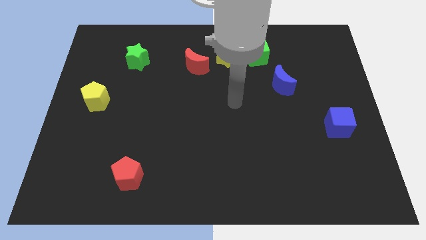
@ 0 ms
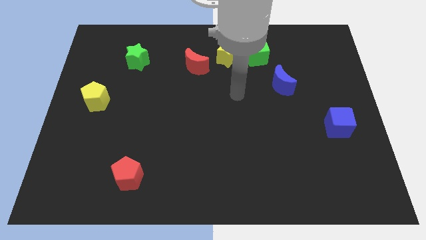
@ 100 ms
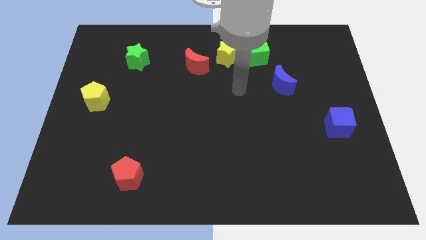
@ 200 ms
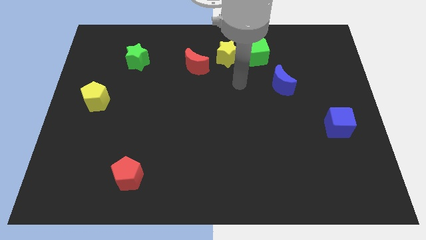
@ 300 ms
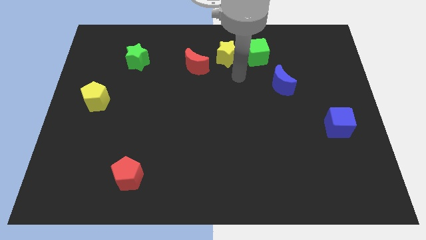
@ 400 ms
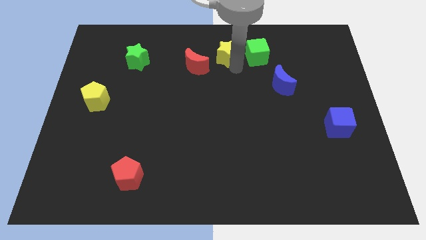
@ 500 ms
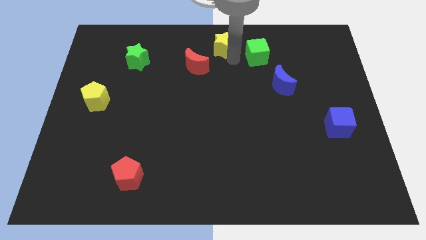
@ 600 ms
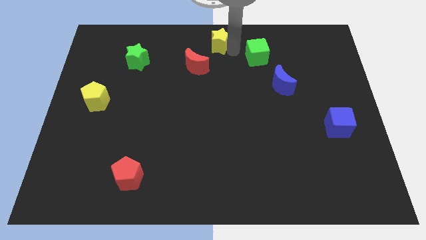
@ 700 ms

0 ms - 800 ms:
separate the green cube from the yellow star

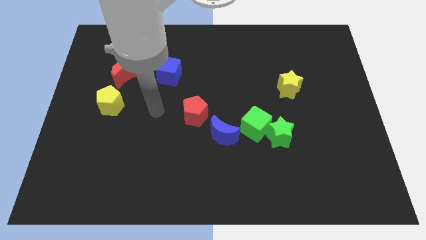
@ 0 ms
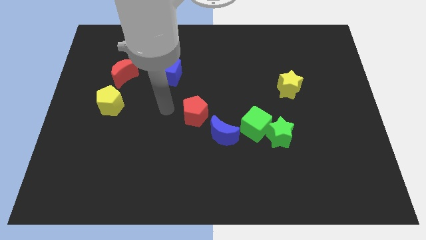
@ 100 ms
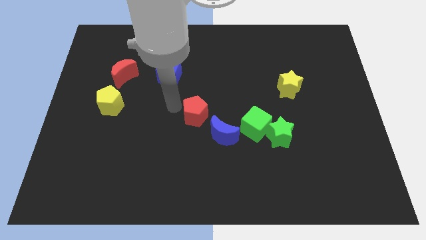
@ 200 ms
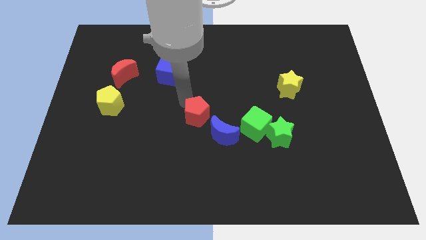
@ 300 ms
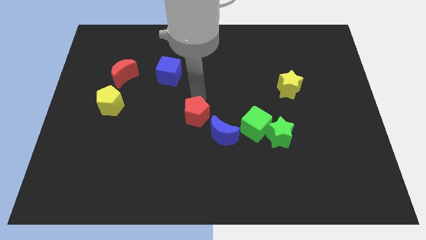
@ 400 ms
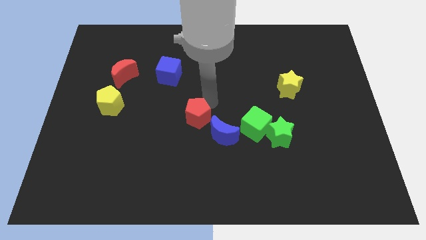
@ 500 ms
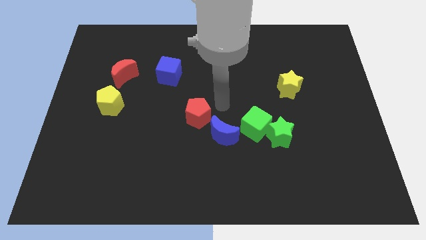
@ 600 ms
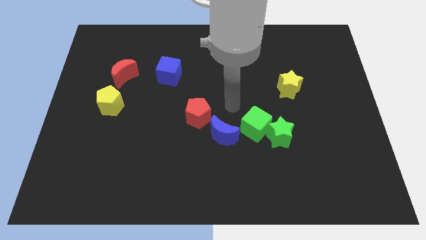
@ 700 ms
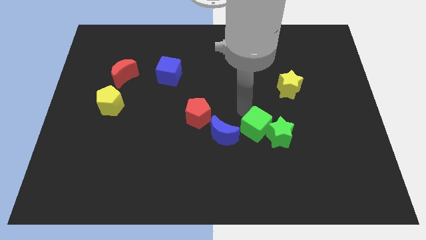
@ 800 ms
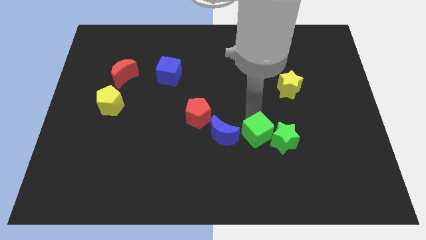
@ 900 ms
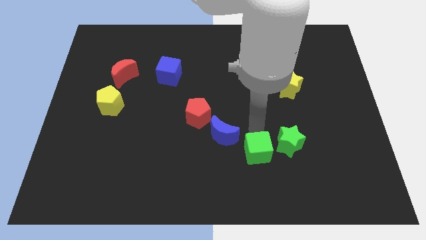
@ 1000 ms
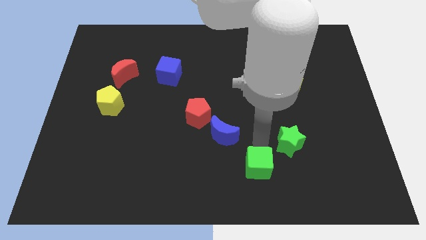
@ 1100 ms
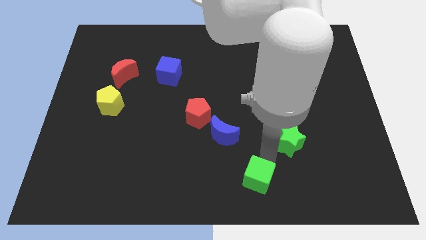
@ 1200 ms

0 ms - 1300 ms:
separate the green star from the green cube

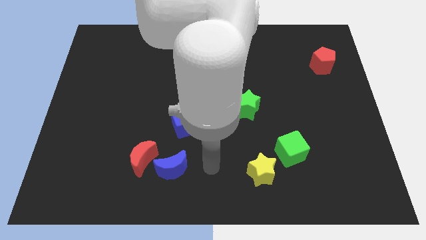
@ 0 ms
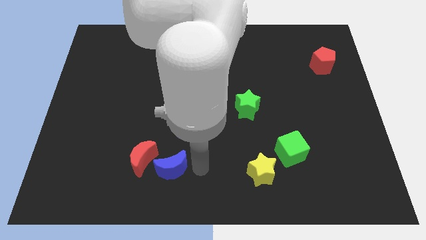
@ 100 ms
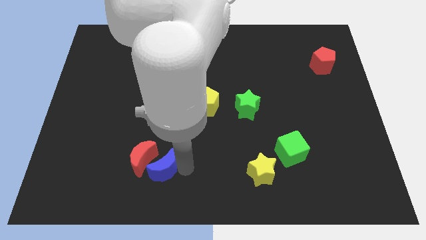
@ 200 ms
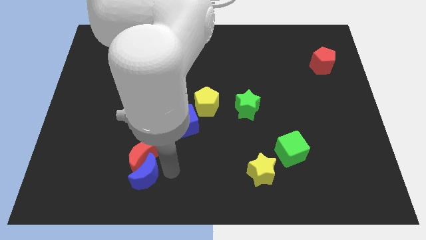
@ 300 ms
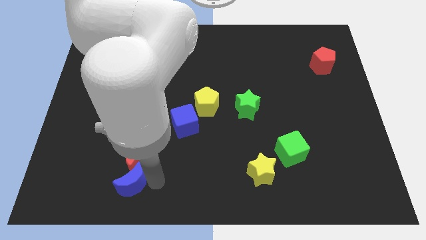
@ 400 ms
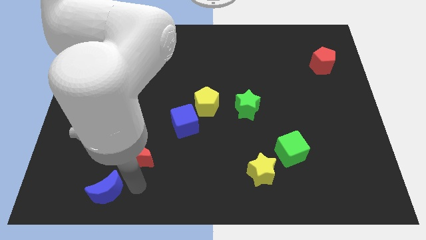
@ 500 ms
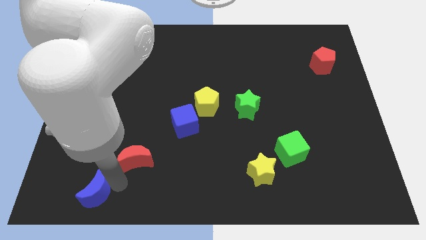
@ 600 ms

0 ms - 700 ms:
pull the red moon apart from the blue moon

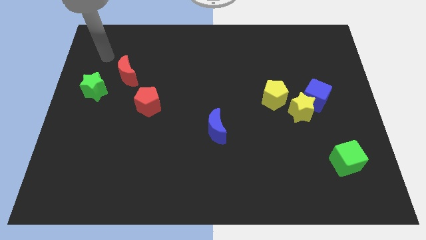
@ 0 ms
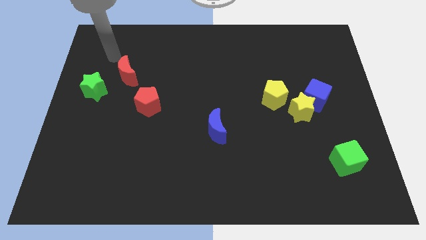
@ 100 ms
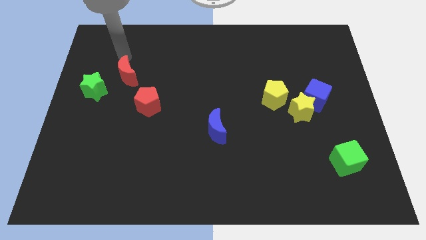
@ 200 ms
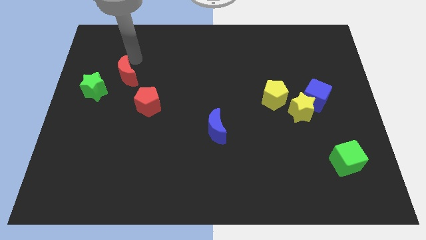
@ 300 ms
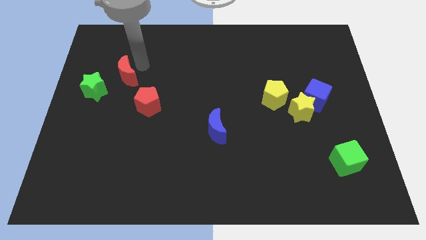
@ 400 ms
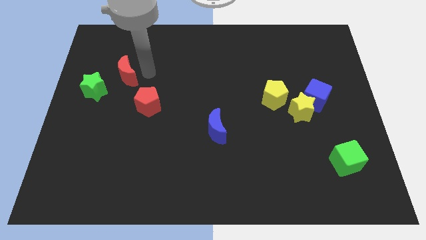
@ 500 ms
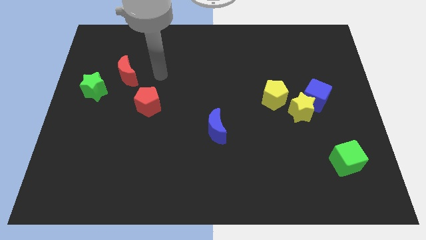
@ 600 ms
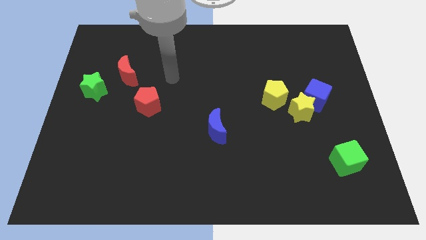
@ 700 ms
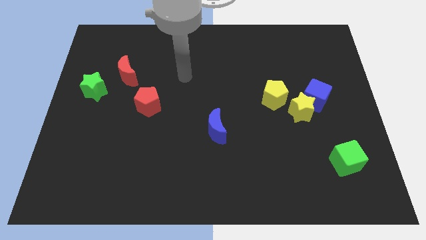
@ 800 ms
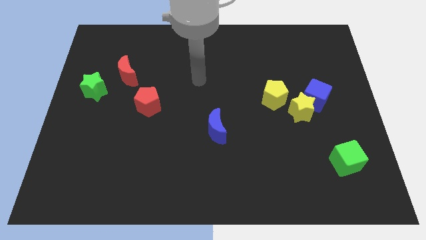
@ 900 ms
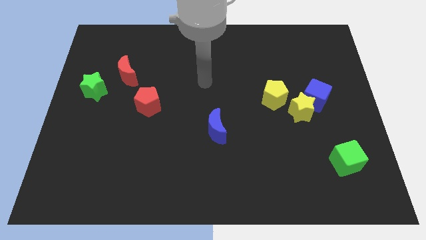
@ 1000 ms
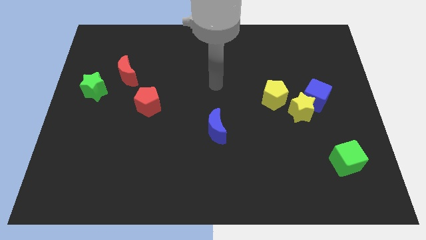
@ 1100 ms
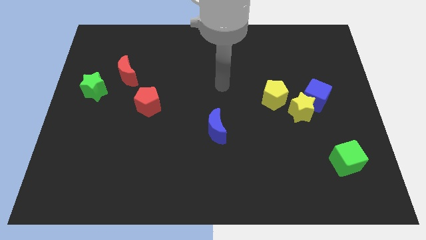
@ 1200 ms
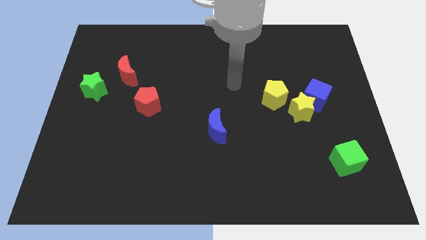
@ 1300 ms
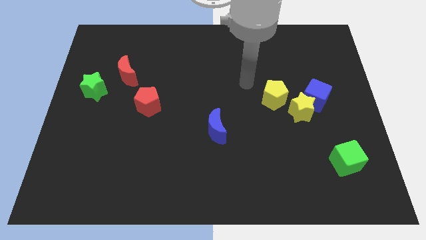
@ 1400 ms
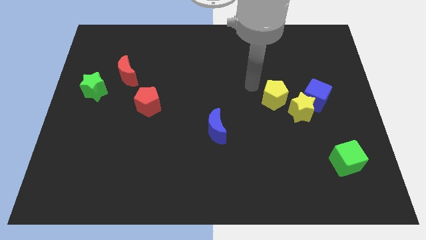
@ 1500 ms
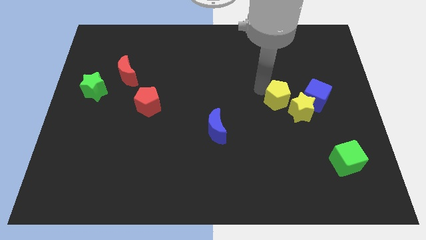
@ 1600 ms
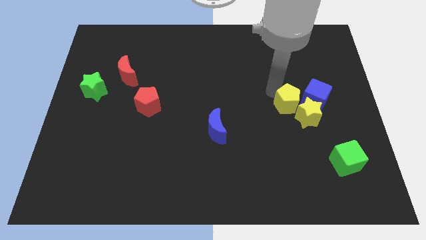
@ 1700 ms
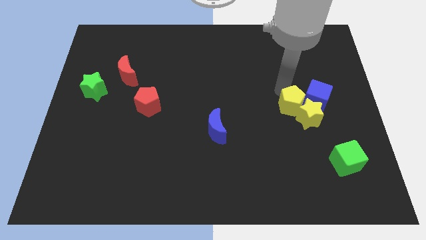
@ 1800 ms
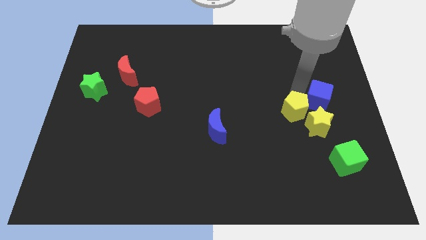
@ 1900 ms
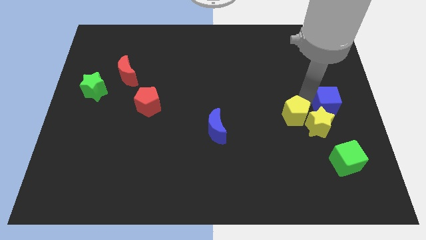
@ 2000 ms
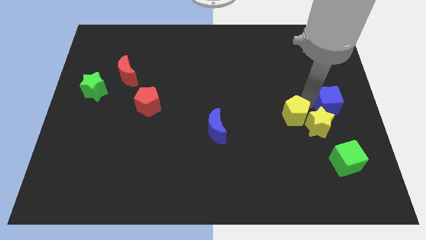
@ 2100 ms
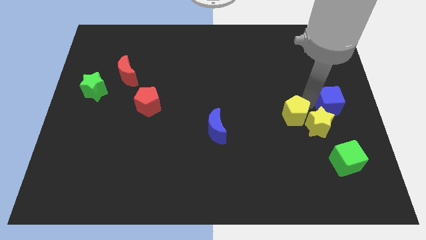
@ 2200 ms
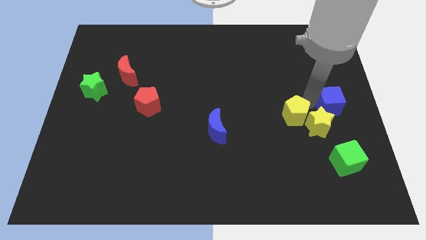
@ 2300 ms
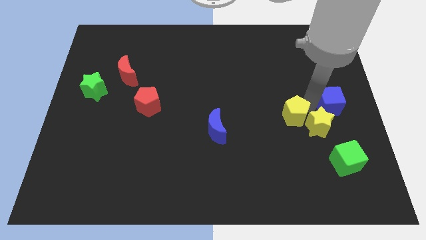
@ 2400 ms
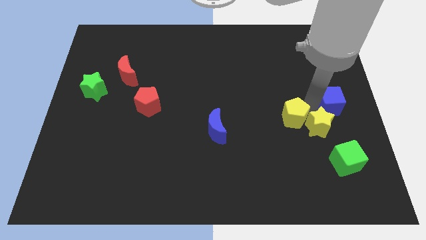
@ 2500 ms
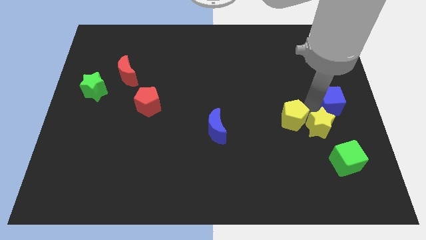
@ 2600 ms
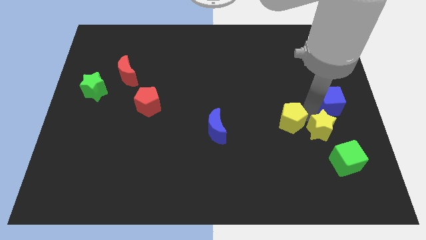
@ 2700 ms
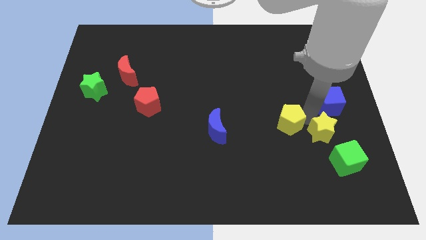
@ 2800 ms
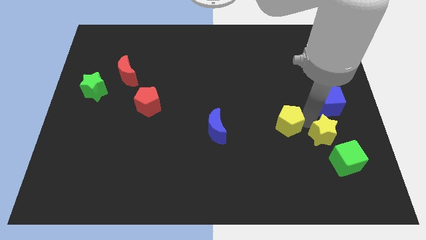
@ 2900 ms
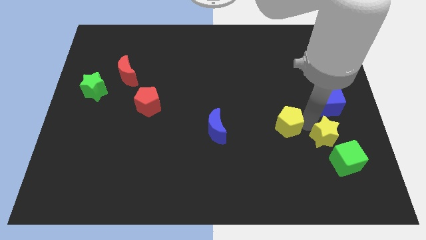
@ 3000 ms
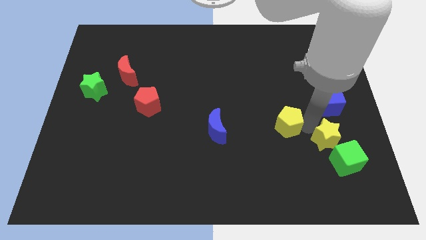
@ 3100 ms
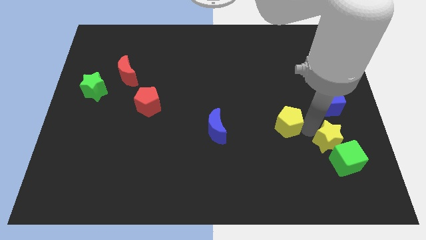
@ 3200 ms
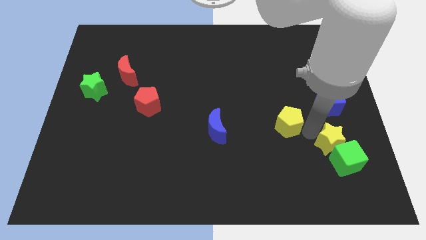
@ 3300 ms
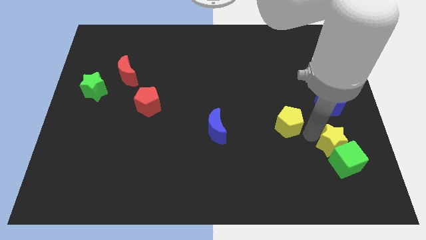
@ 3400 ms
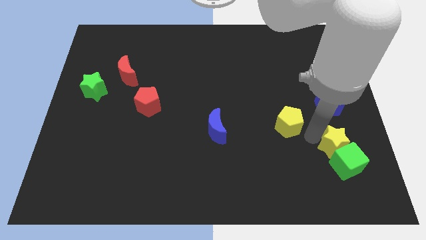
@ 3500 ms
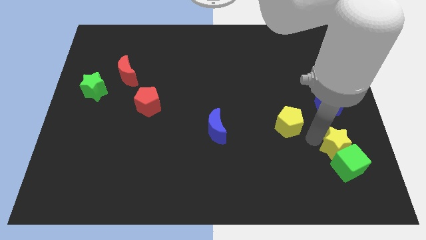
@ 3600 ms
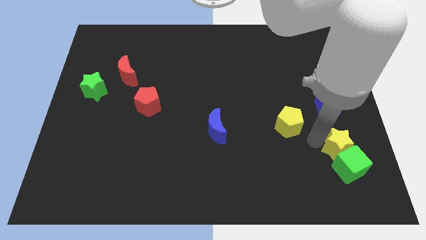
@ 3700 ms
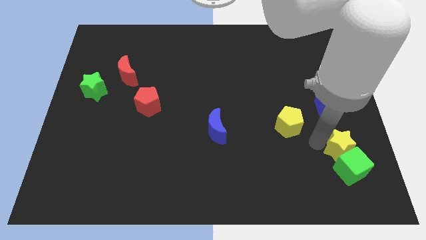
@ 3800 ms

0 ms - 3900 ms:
pull the yellow star apart from the blue cube and yellow pentagon

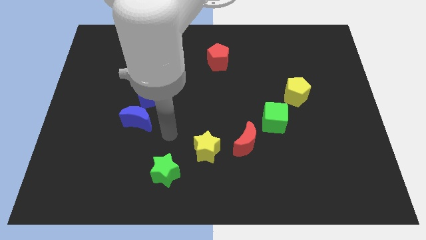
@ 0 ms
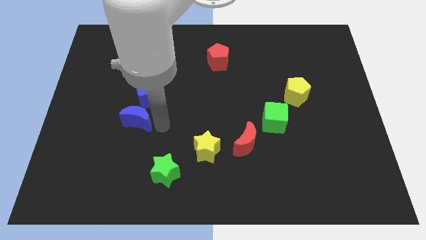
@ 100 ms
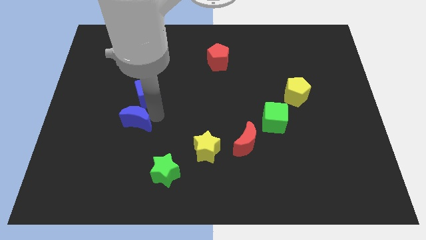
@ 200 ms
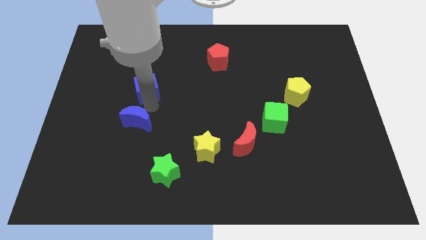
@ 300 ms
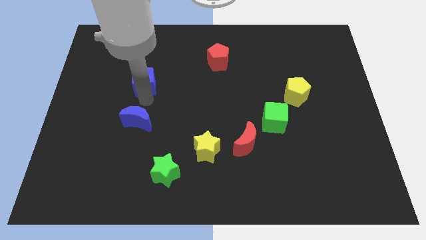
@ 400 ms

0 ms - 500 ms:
move the blue moon away from the blue cube

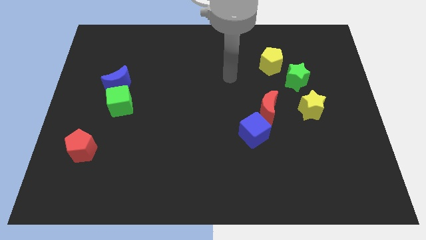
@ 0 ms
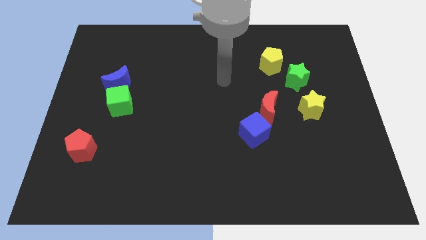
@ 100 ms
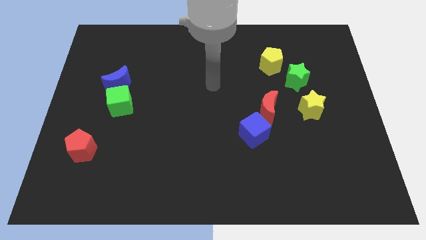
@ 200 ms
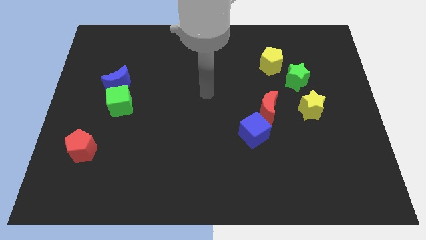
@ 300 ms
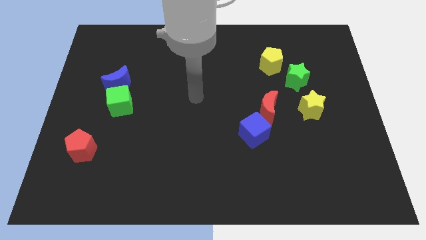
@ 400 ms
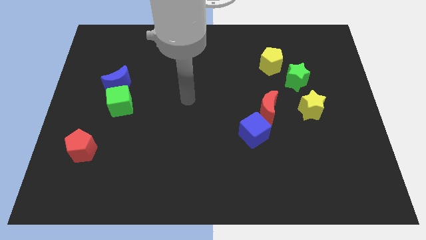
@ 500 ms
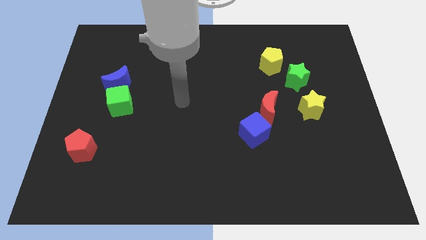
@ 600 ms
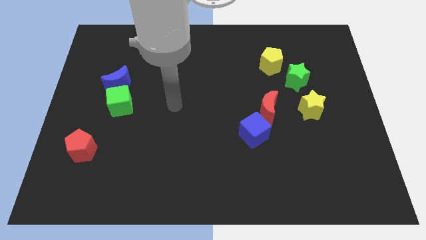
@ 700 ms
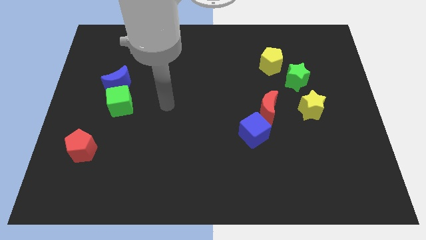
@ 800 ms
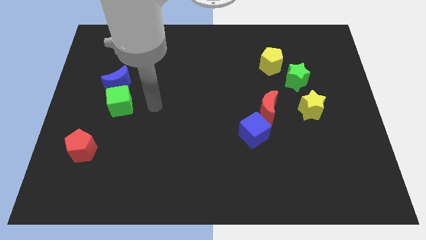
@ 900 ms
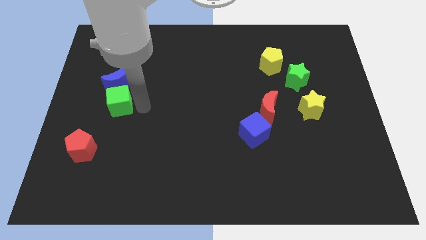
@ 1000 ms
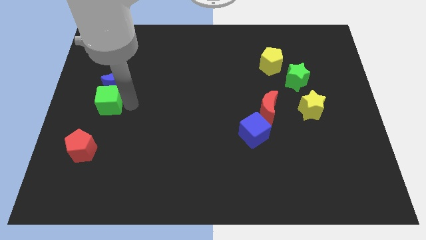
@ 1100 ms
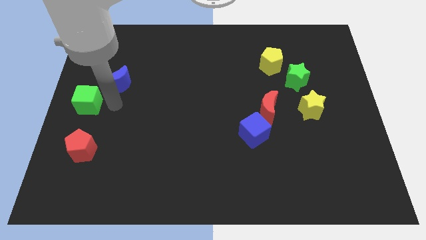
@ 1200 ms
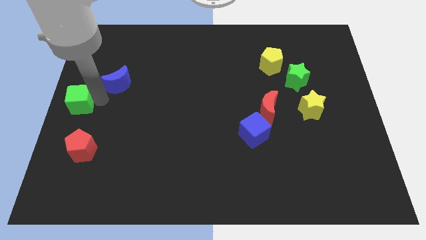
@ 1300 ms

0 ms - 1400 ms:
move the blue moon away from the green cube

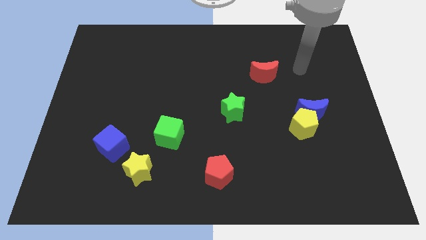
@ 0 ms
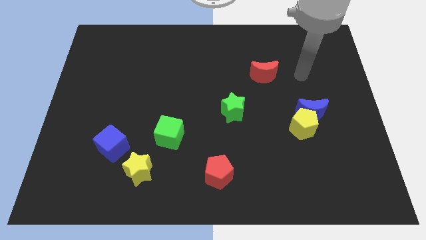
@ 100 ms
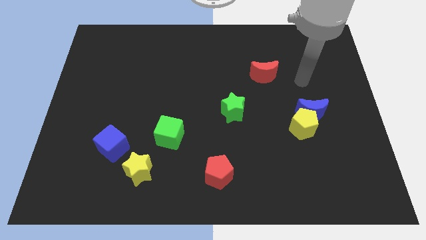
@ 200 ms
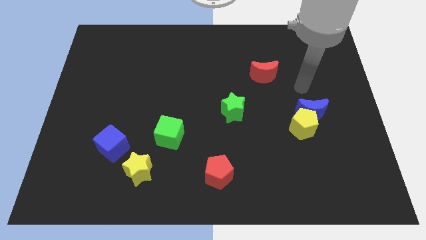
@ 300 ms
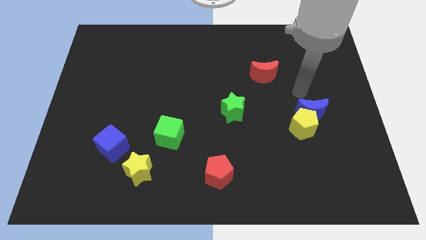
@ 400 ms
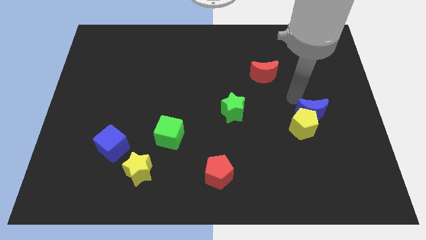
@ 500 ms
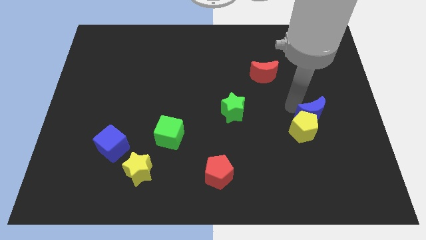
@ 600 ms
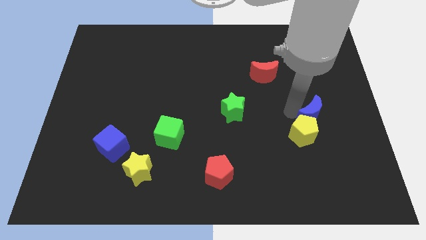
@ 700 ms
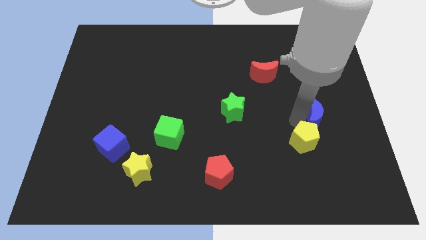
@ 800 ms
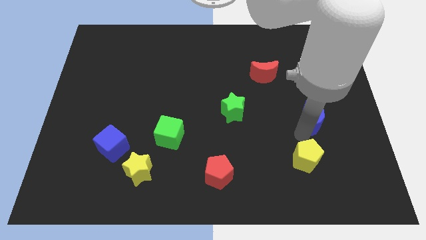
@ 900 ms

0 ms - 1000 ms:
pull the blue moon apart from the yellow pentagon
